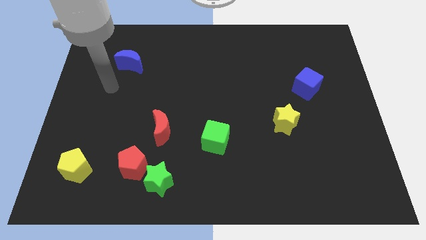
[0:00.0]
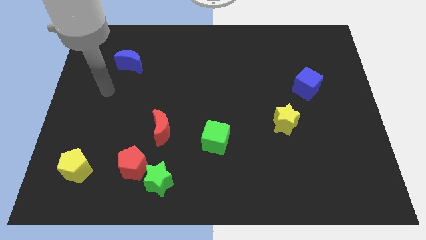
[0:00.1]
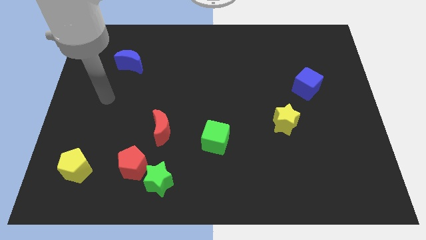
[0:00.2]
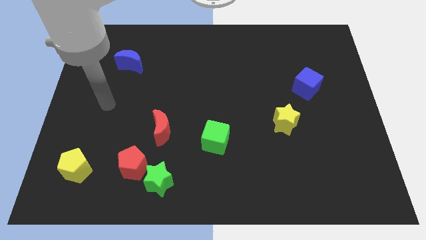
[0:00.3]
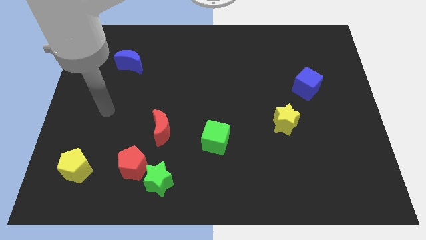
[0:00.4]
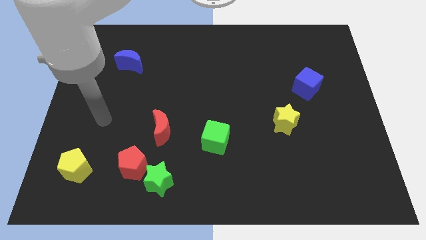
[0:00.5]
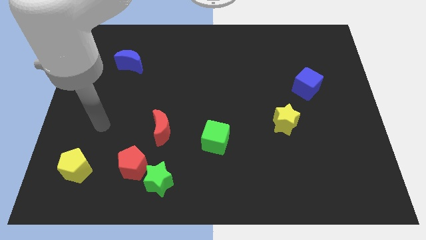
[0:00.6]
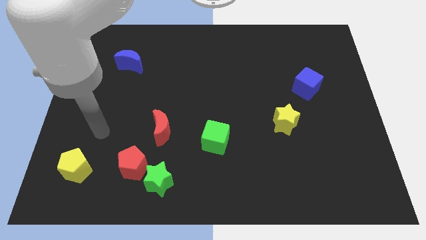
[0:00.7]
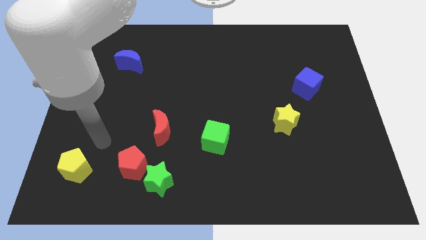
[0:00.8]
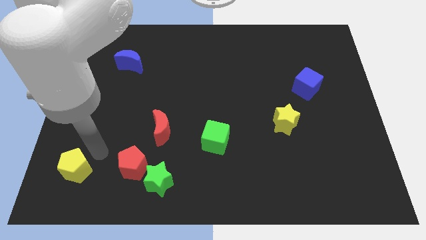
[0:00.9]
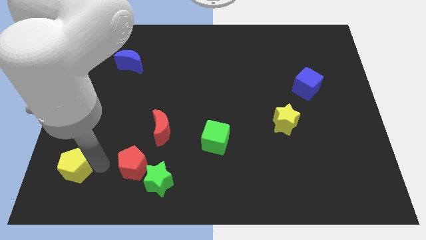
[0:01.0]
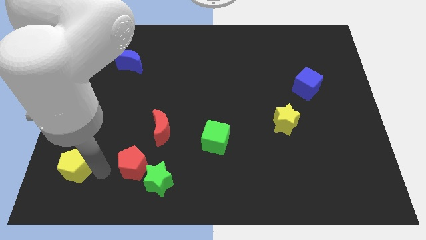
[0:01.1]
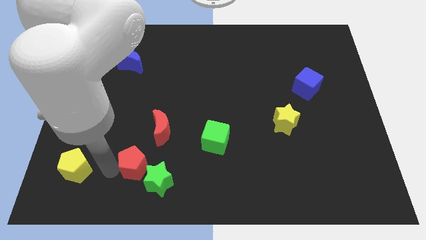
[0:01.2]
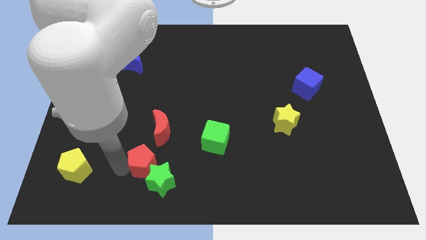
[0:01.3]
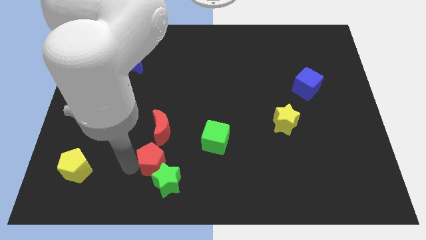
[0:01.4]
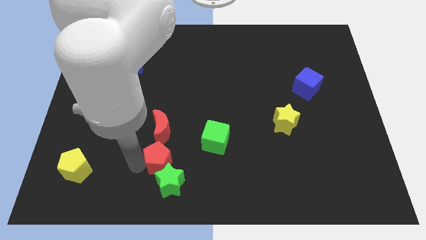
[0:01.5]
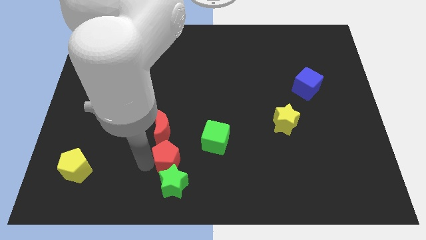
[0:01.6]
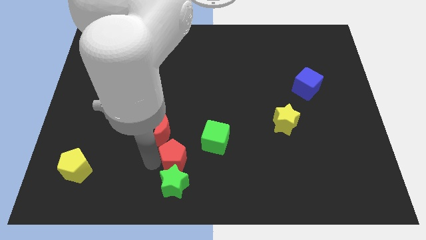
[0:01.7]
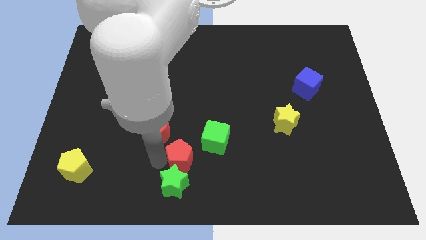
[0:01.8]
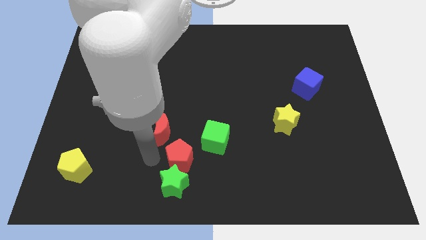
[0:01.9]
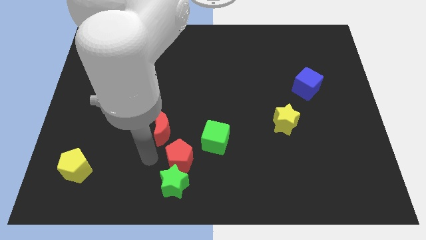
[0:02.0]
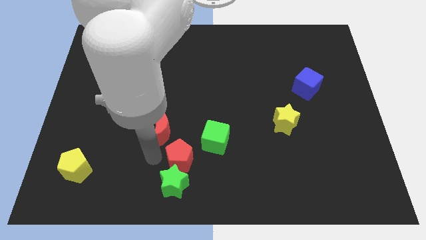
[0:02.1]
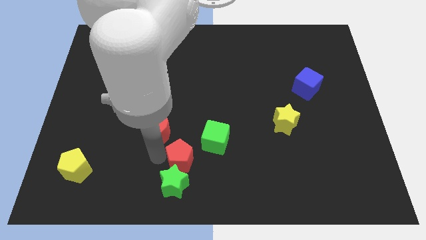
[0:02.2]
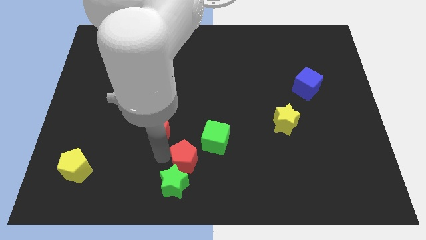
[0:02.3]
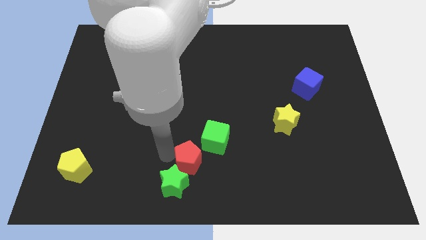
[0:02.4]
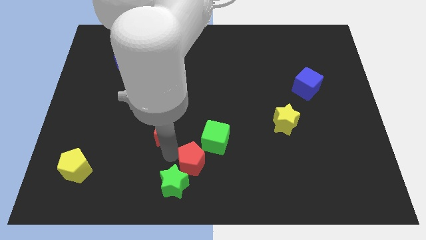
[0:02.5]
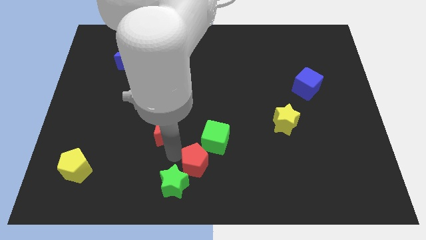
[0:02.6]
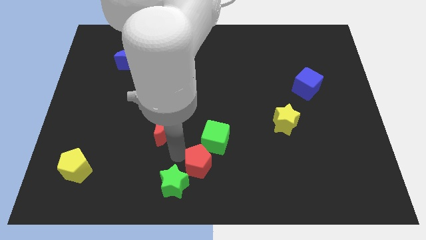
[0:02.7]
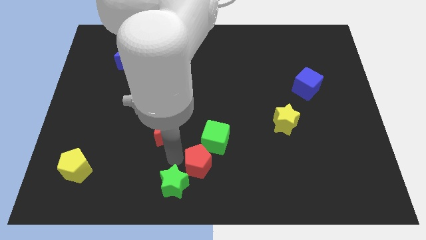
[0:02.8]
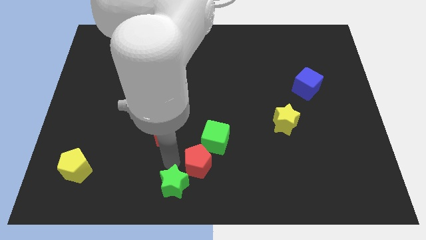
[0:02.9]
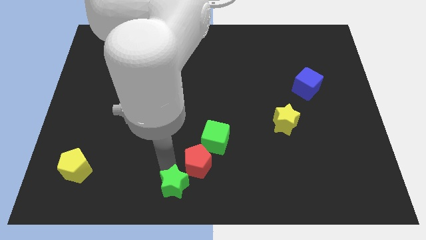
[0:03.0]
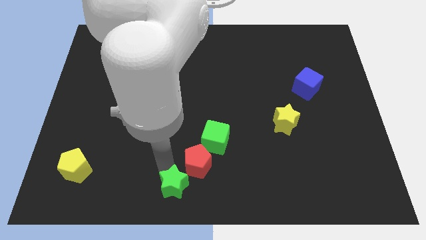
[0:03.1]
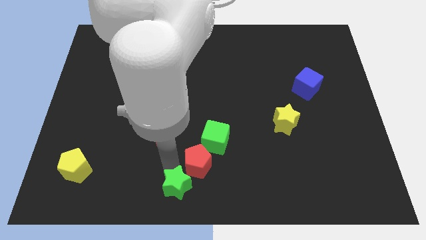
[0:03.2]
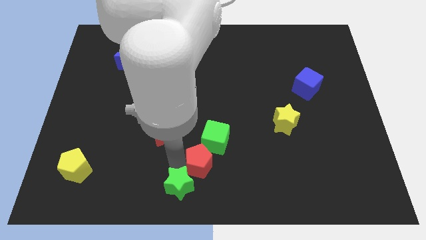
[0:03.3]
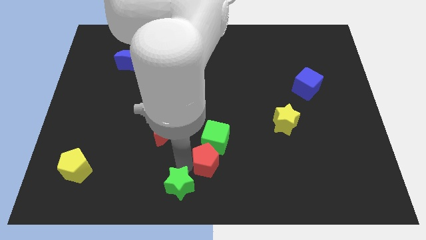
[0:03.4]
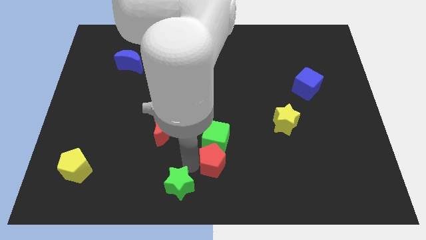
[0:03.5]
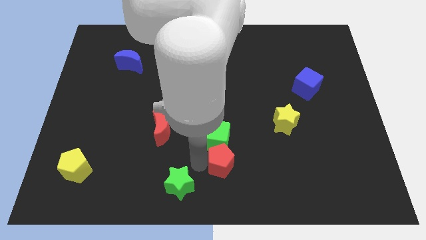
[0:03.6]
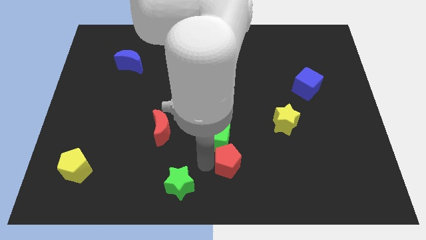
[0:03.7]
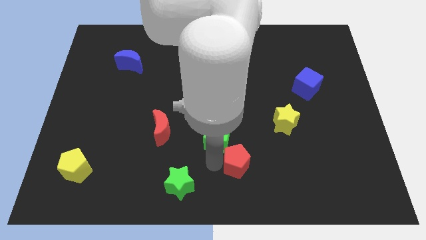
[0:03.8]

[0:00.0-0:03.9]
move the red pentagon to the right

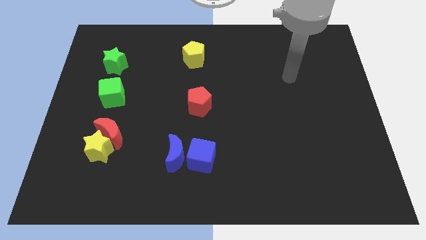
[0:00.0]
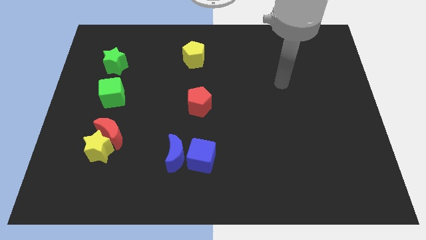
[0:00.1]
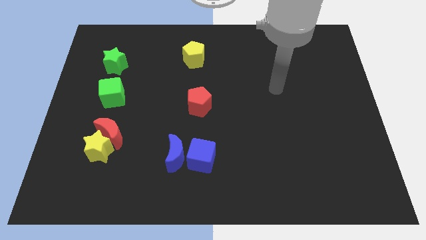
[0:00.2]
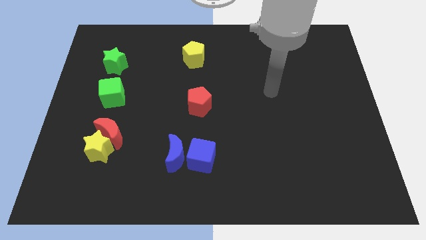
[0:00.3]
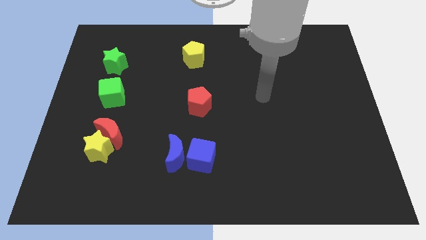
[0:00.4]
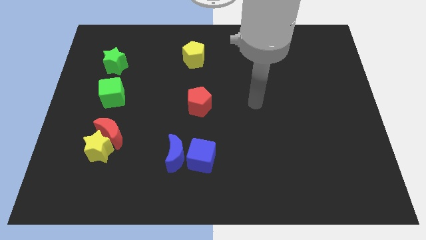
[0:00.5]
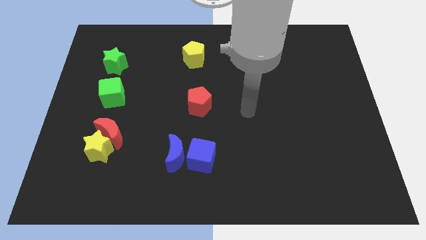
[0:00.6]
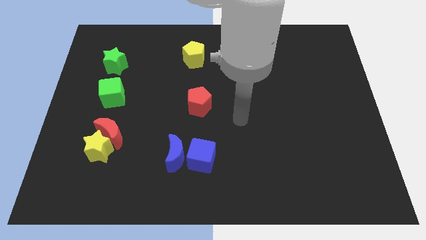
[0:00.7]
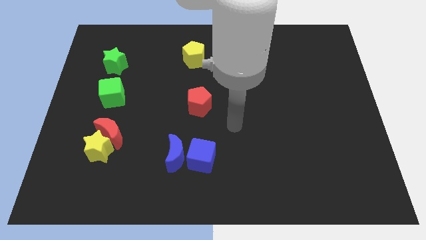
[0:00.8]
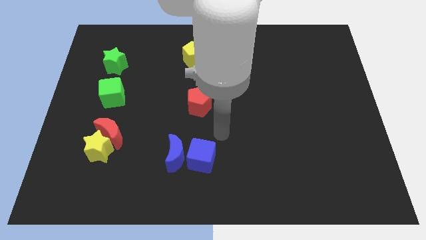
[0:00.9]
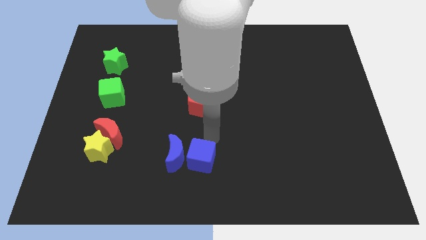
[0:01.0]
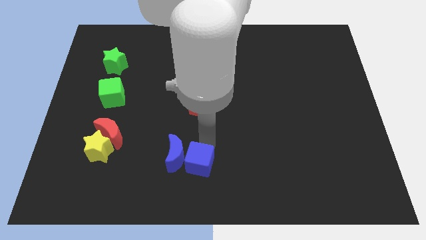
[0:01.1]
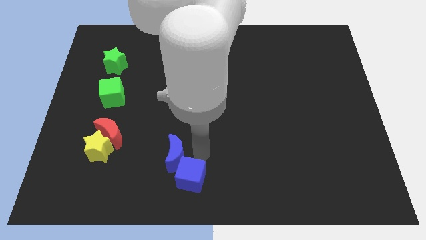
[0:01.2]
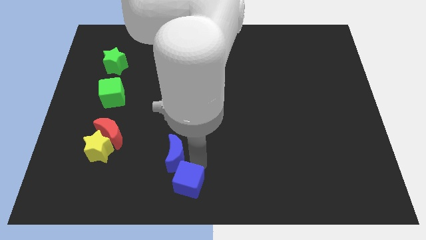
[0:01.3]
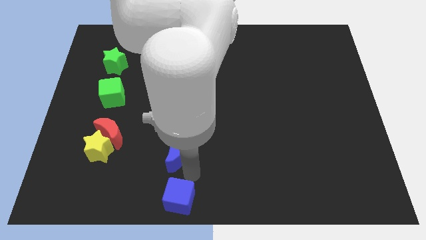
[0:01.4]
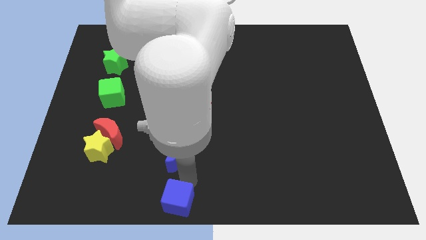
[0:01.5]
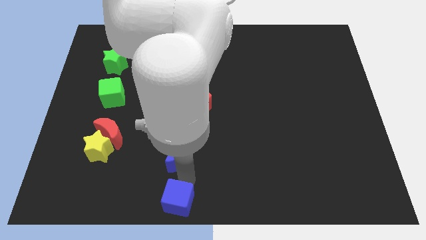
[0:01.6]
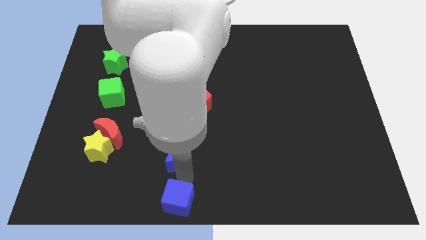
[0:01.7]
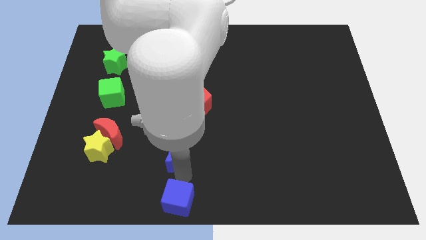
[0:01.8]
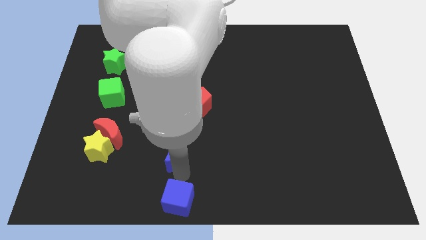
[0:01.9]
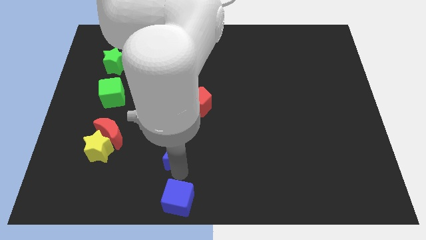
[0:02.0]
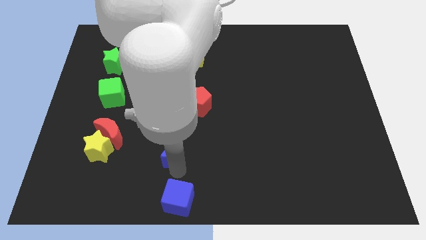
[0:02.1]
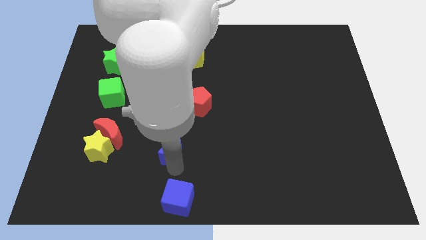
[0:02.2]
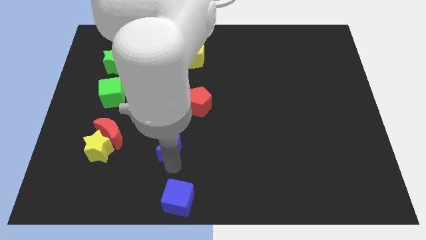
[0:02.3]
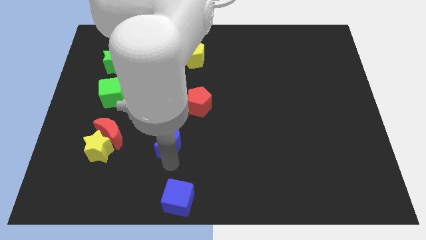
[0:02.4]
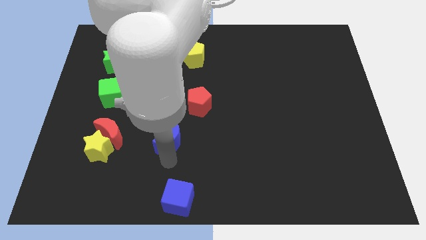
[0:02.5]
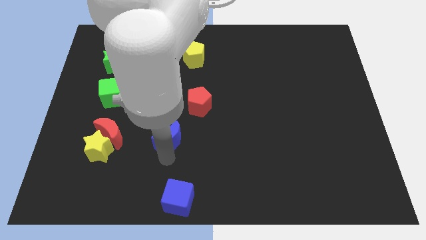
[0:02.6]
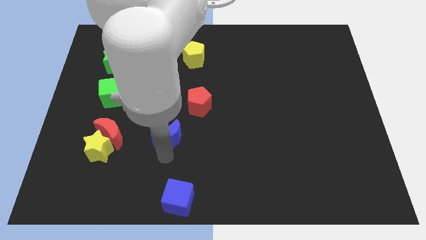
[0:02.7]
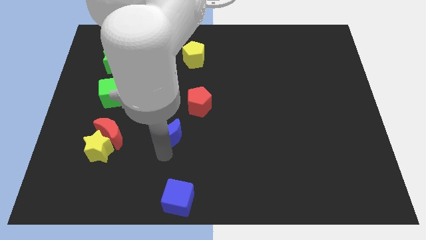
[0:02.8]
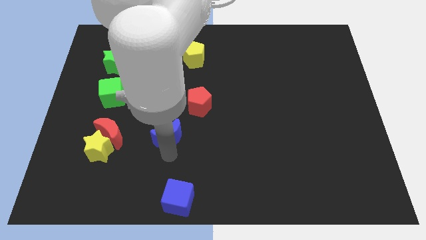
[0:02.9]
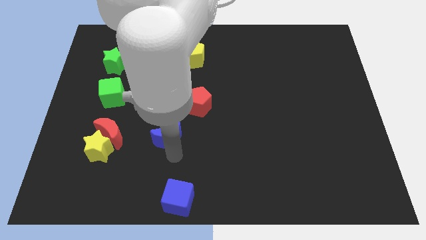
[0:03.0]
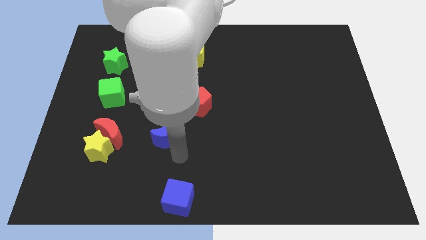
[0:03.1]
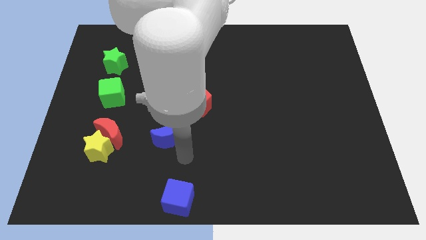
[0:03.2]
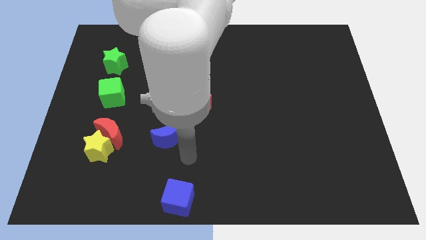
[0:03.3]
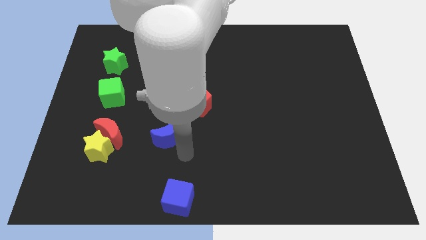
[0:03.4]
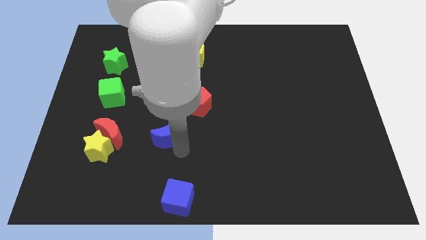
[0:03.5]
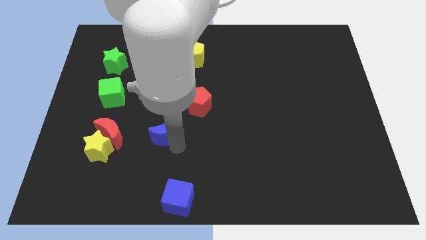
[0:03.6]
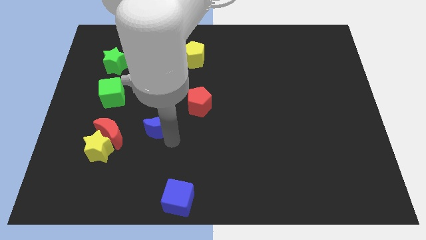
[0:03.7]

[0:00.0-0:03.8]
slightly push the blue moon up and then to the left

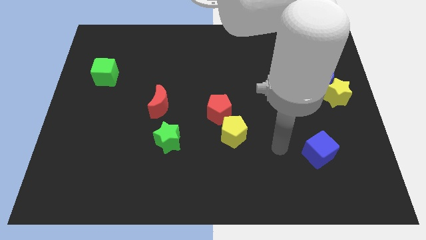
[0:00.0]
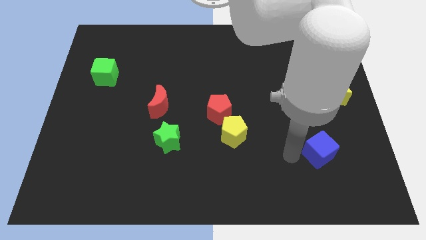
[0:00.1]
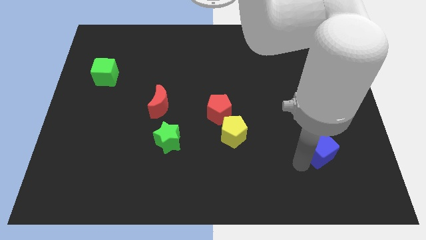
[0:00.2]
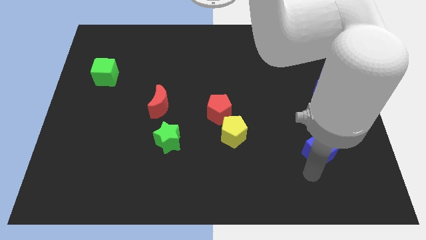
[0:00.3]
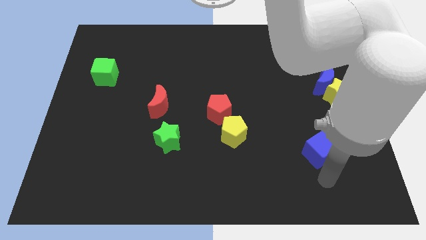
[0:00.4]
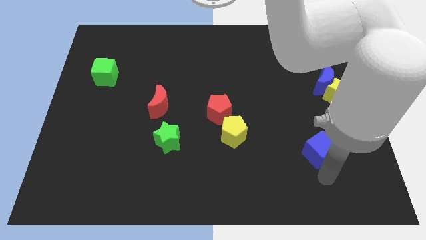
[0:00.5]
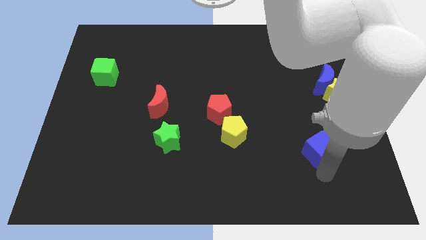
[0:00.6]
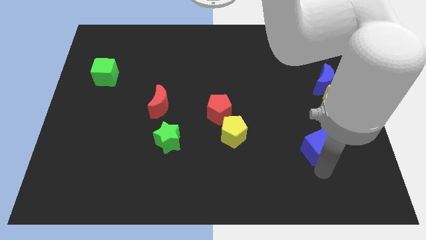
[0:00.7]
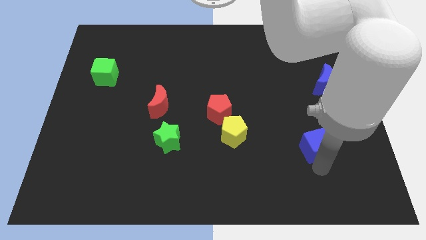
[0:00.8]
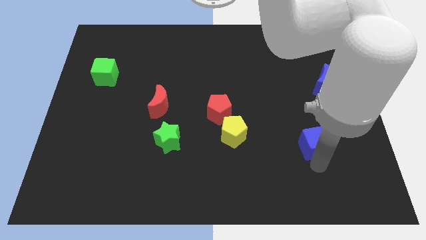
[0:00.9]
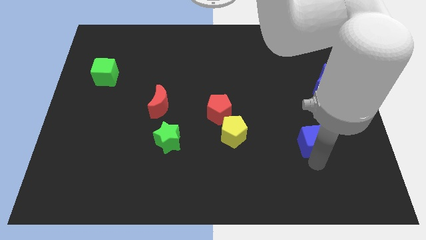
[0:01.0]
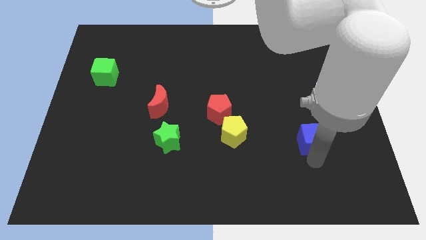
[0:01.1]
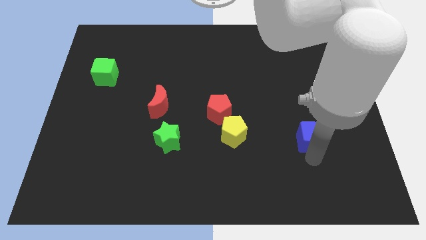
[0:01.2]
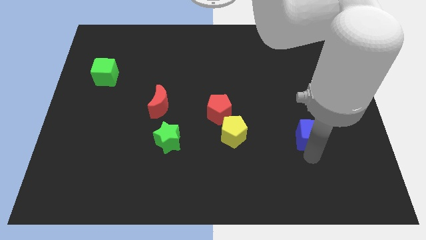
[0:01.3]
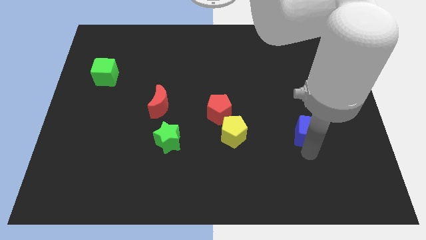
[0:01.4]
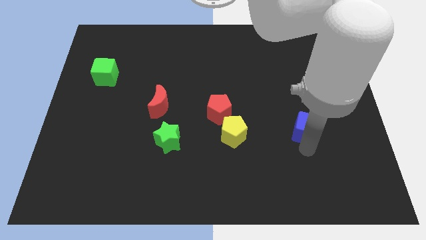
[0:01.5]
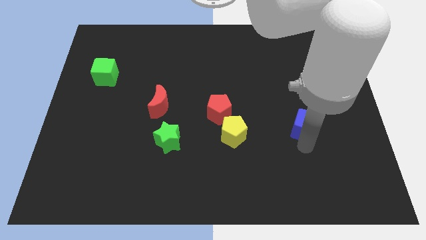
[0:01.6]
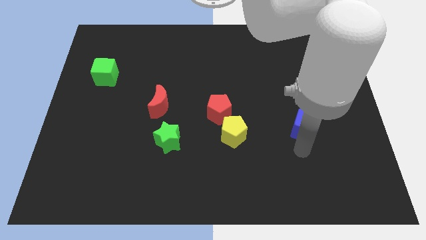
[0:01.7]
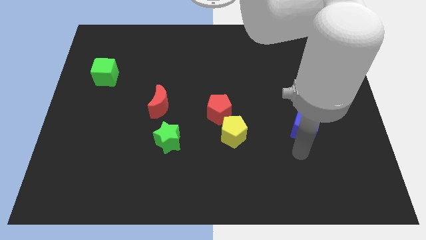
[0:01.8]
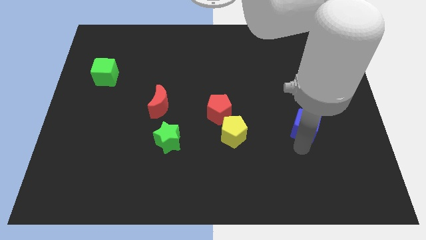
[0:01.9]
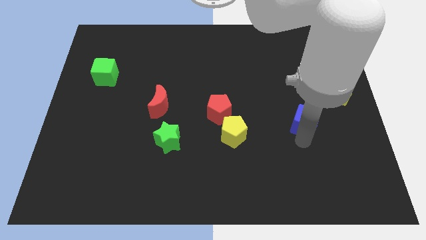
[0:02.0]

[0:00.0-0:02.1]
slightly move the blue cube up
